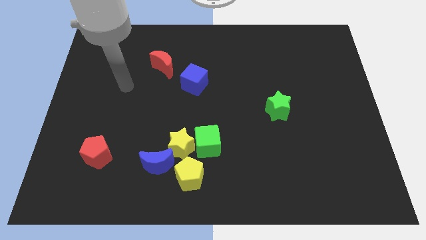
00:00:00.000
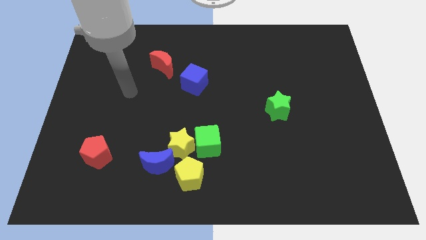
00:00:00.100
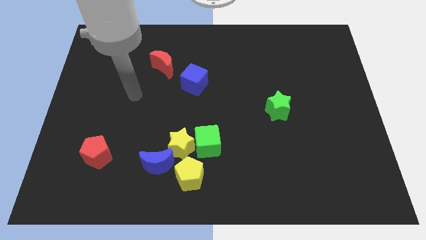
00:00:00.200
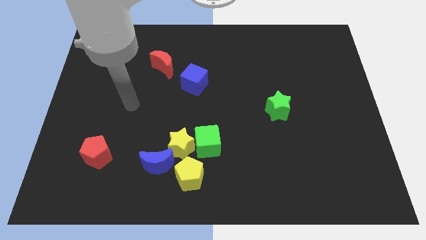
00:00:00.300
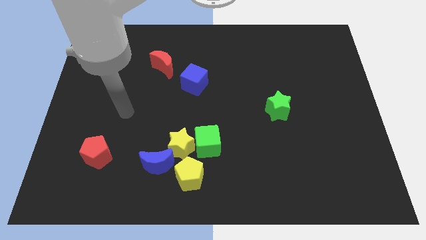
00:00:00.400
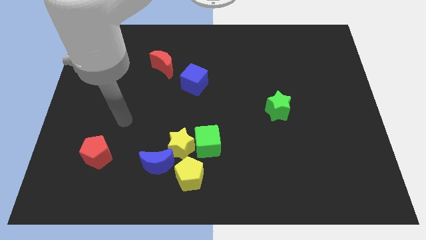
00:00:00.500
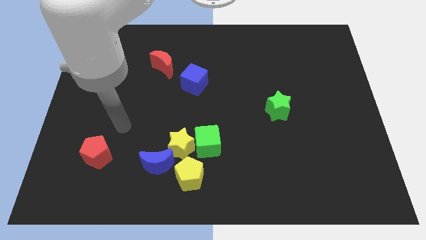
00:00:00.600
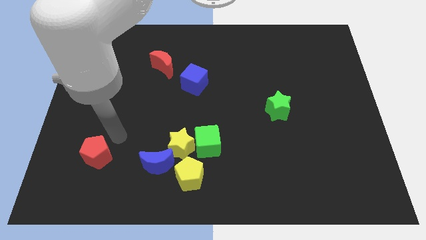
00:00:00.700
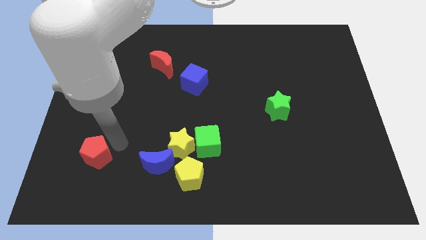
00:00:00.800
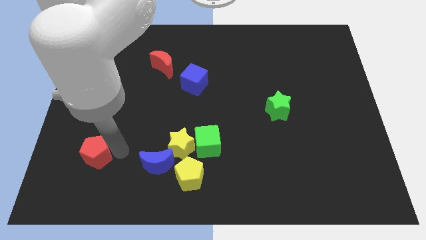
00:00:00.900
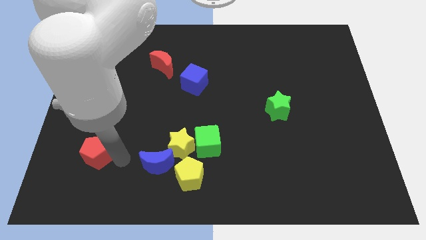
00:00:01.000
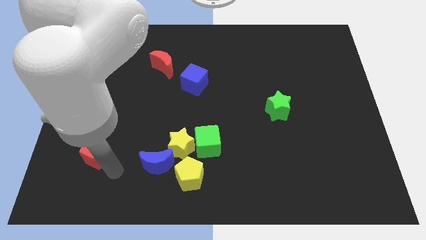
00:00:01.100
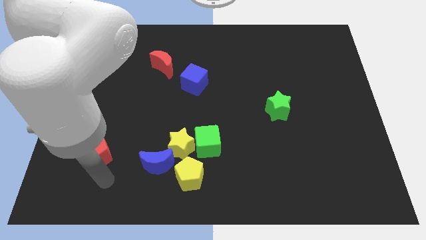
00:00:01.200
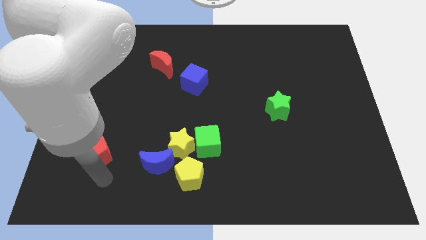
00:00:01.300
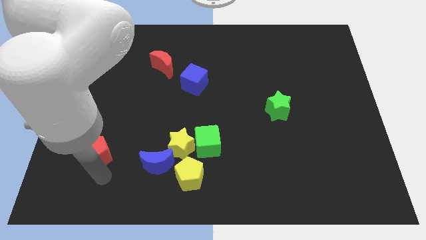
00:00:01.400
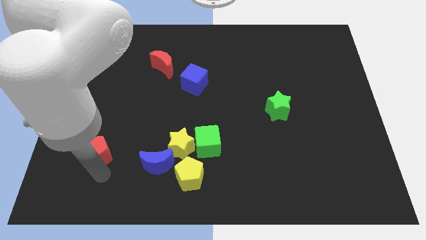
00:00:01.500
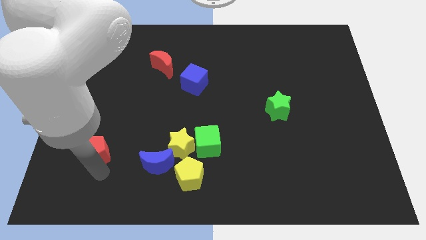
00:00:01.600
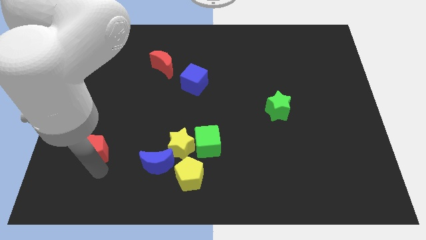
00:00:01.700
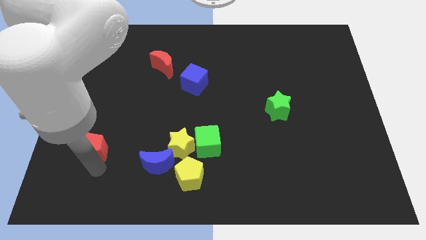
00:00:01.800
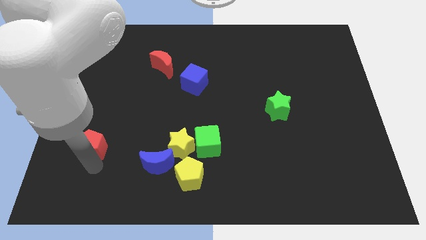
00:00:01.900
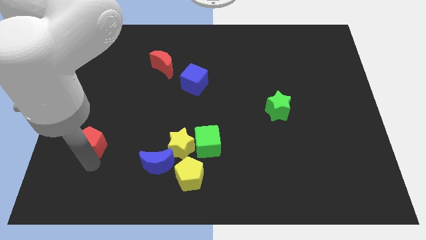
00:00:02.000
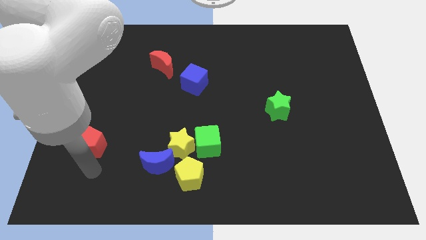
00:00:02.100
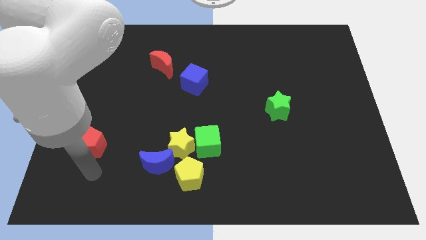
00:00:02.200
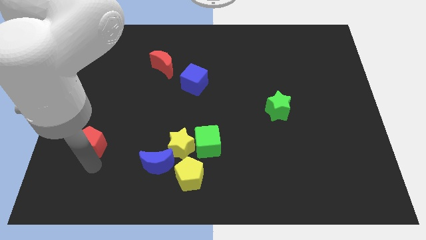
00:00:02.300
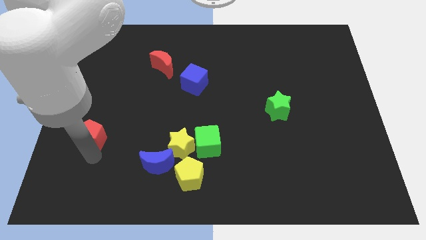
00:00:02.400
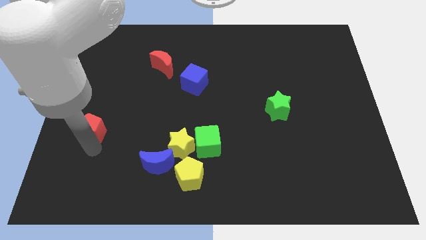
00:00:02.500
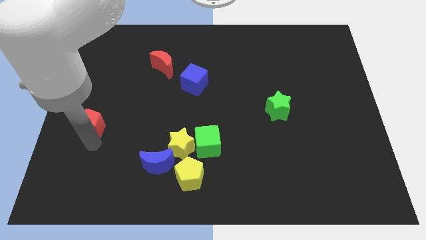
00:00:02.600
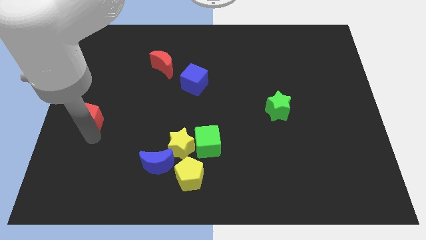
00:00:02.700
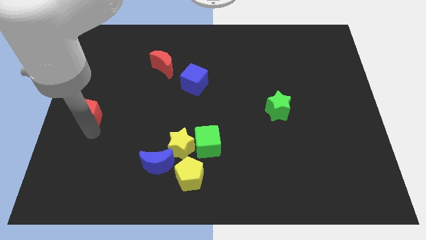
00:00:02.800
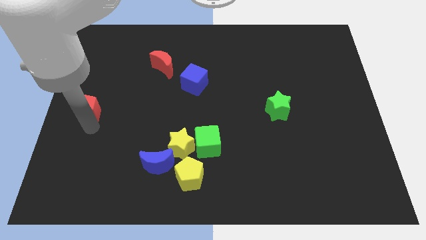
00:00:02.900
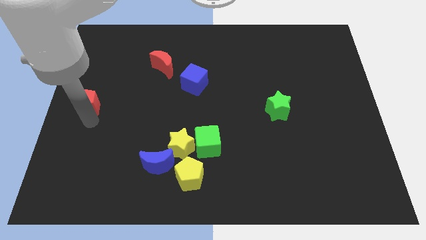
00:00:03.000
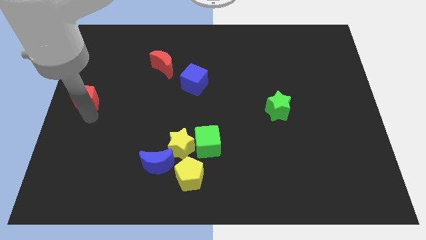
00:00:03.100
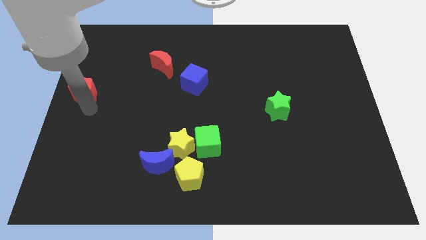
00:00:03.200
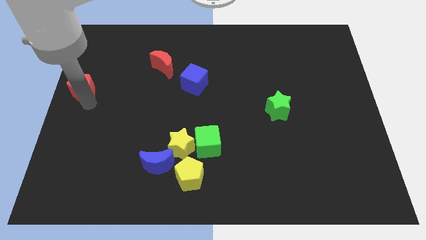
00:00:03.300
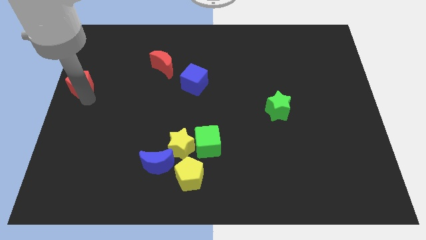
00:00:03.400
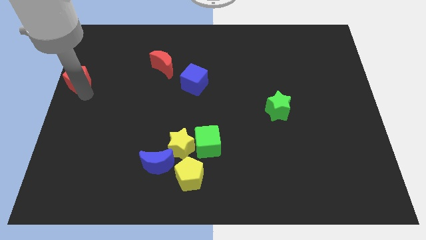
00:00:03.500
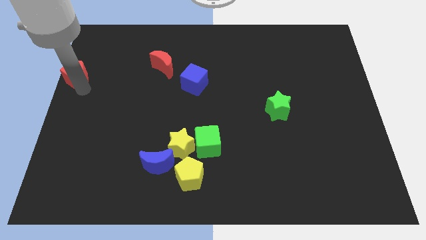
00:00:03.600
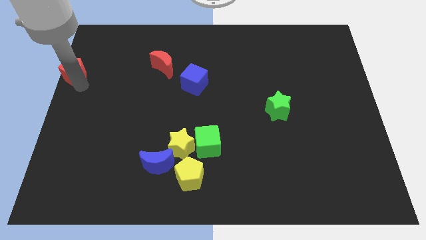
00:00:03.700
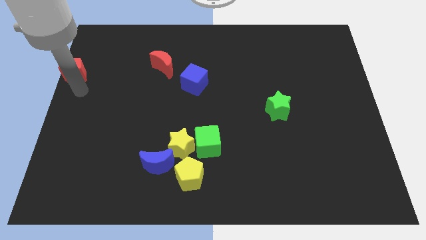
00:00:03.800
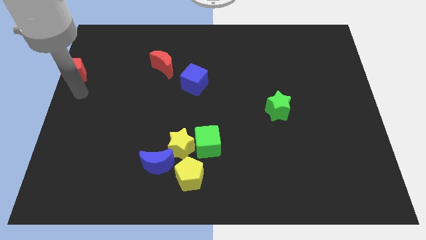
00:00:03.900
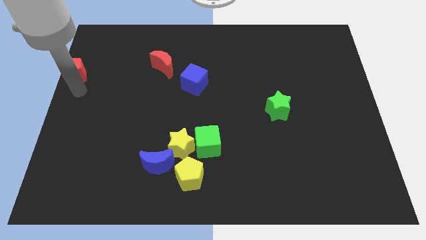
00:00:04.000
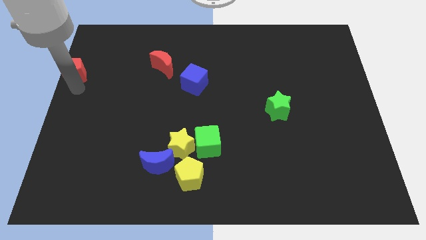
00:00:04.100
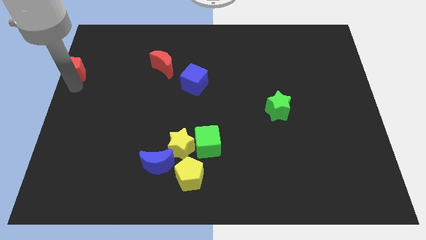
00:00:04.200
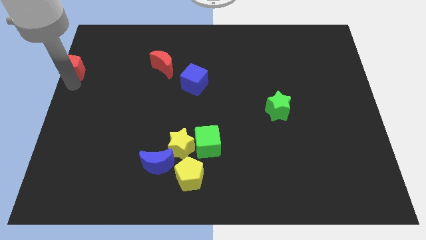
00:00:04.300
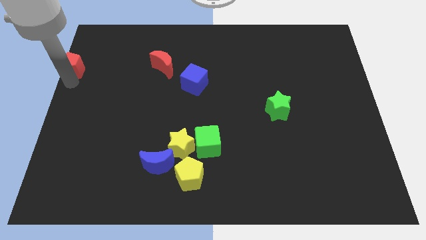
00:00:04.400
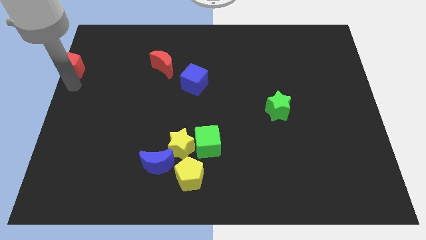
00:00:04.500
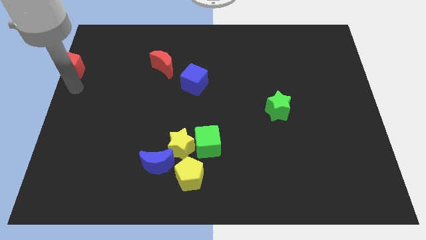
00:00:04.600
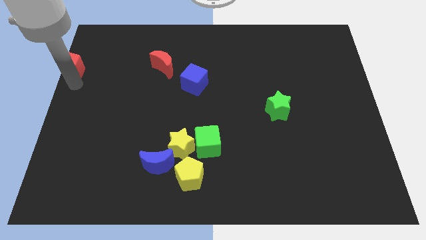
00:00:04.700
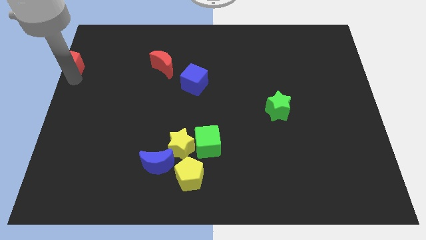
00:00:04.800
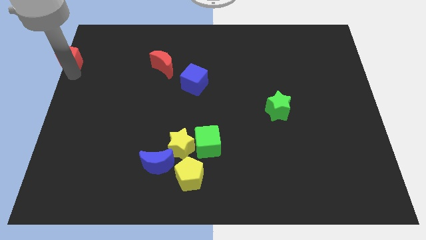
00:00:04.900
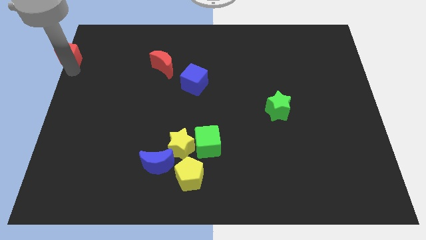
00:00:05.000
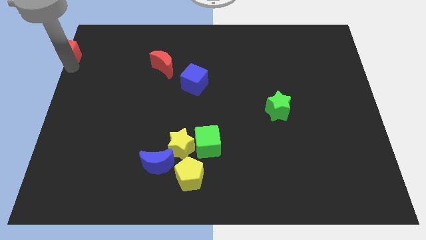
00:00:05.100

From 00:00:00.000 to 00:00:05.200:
put the red pentagon to the top left of the board

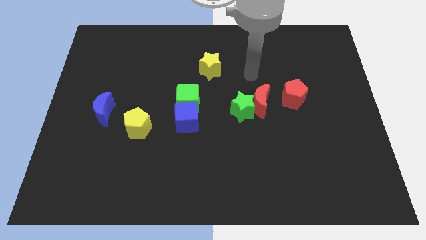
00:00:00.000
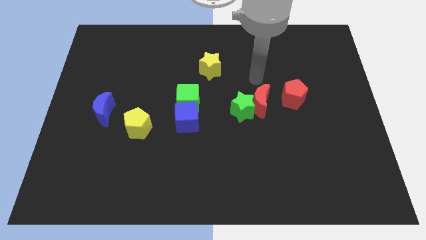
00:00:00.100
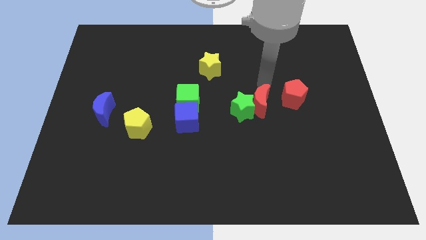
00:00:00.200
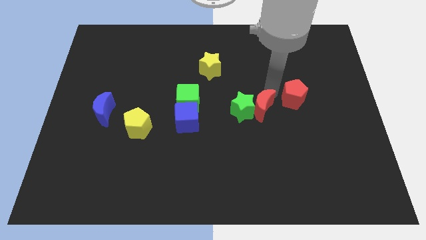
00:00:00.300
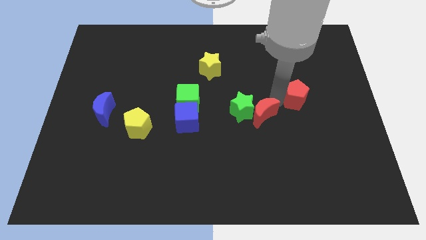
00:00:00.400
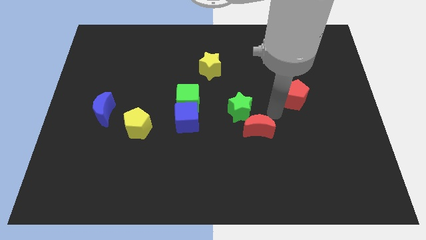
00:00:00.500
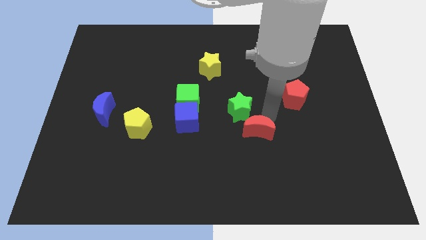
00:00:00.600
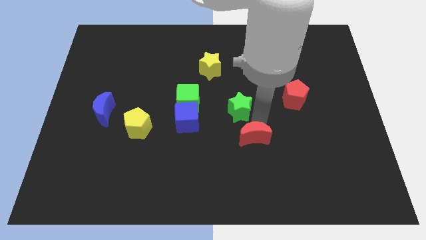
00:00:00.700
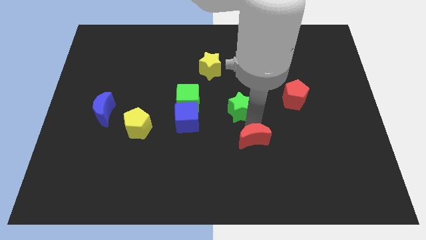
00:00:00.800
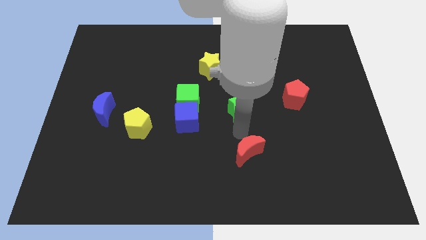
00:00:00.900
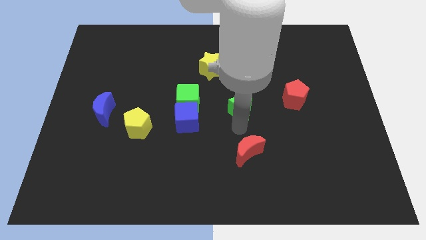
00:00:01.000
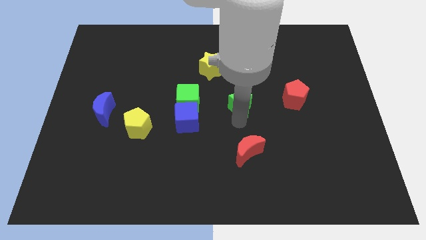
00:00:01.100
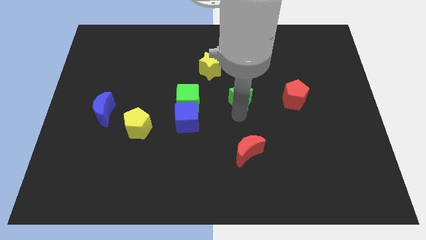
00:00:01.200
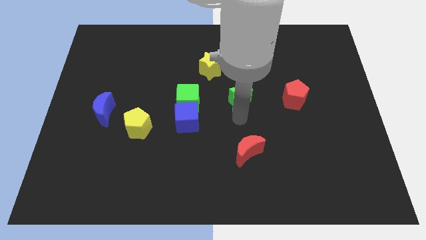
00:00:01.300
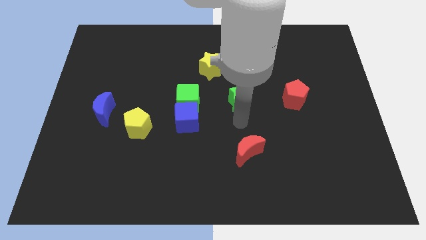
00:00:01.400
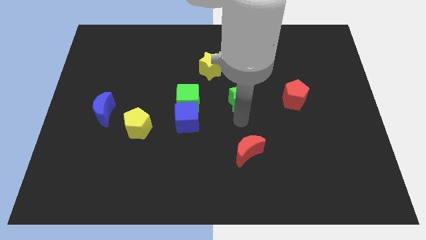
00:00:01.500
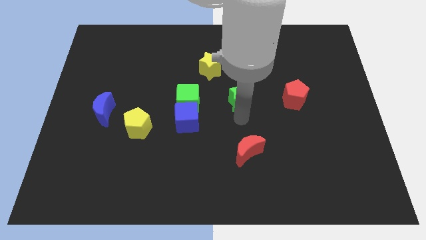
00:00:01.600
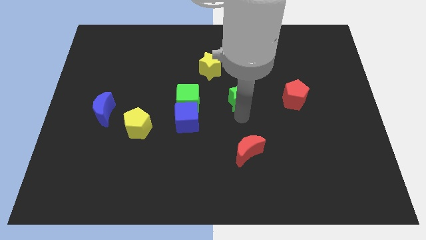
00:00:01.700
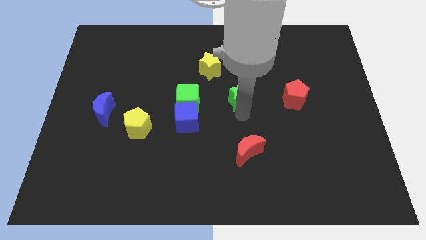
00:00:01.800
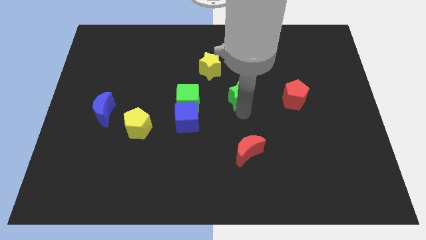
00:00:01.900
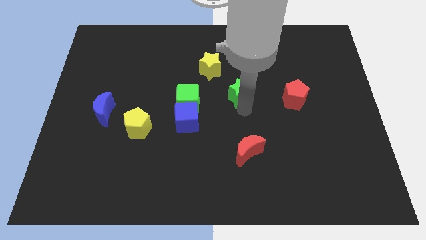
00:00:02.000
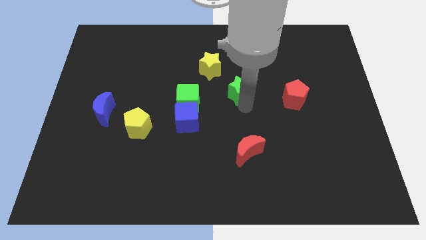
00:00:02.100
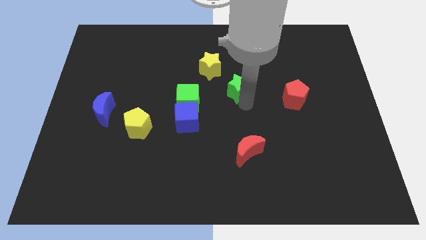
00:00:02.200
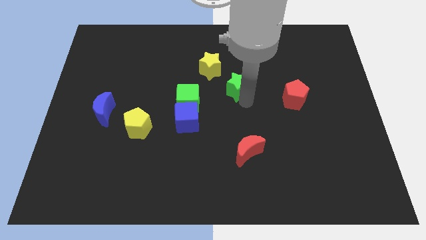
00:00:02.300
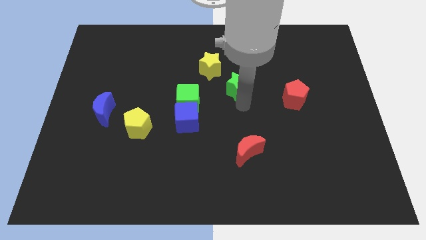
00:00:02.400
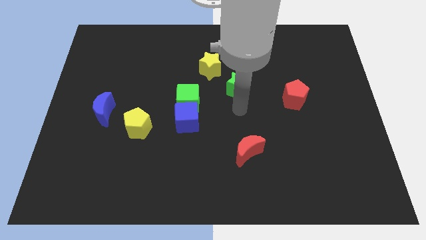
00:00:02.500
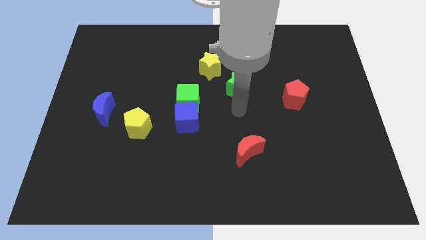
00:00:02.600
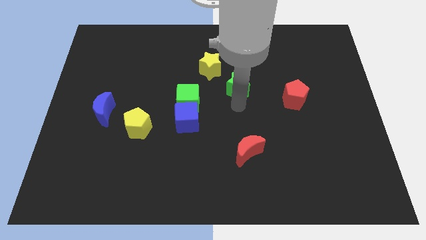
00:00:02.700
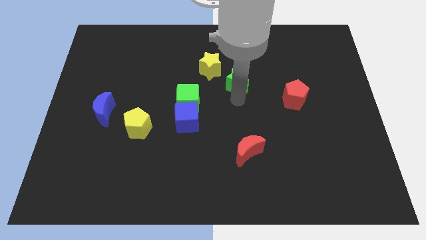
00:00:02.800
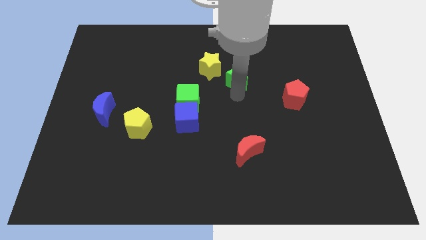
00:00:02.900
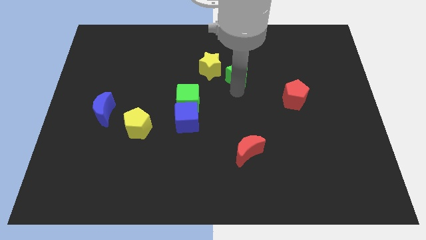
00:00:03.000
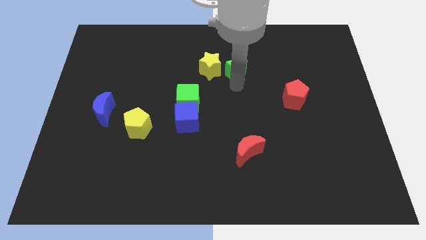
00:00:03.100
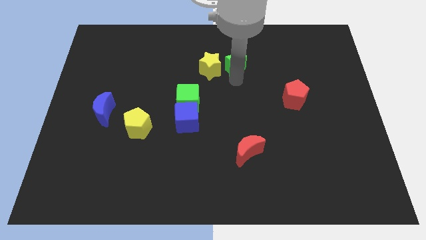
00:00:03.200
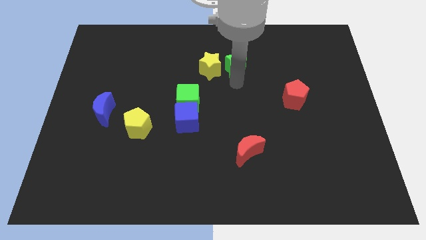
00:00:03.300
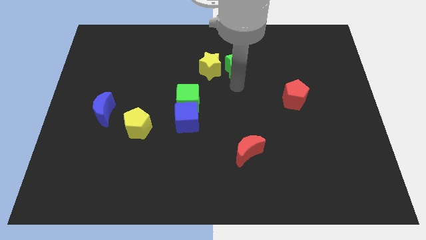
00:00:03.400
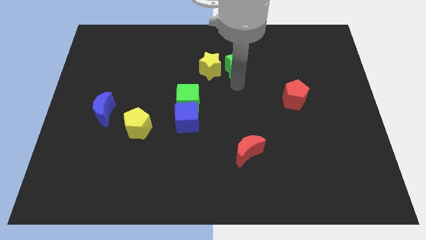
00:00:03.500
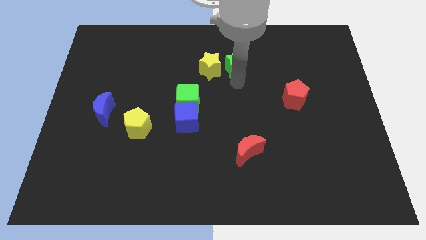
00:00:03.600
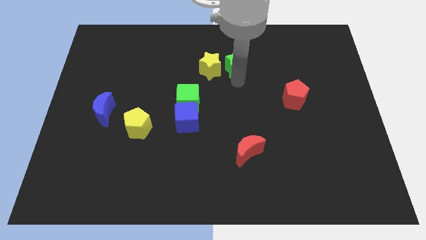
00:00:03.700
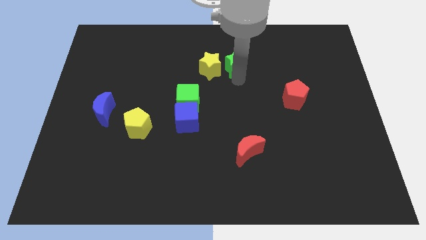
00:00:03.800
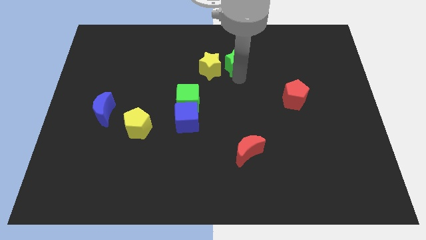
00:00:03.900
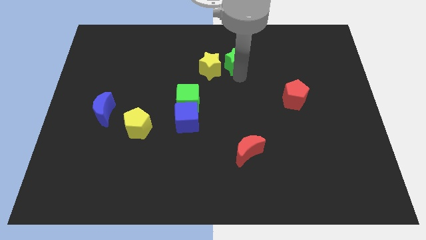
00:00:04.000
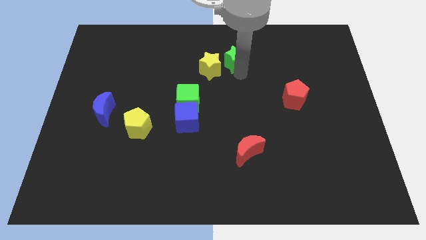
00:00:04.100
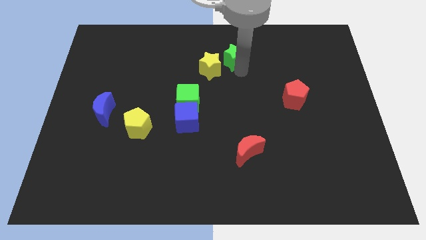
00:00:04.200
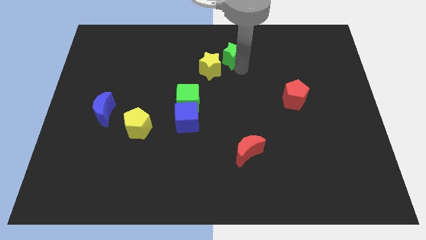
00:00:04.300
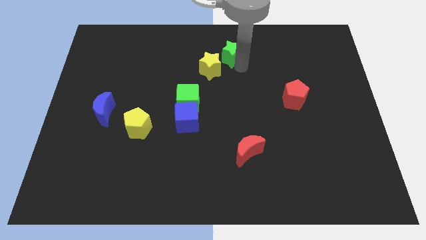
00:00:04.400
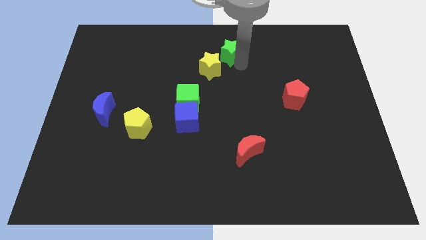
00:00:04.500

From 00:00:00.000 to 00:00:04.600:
move the green star to the top side
